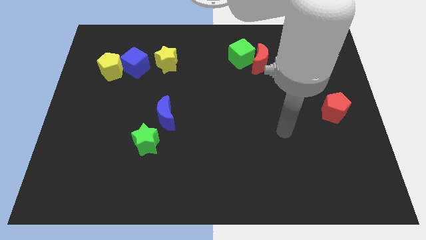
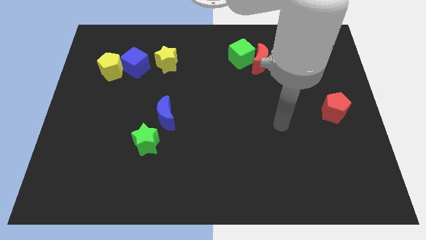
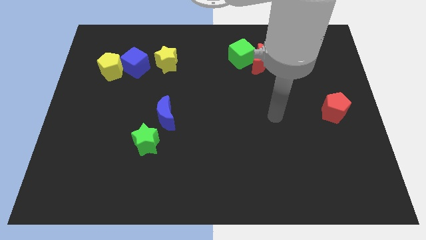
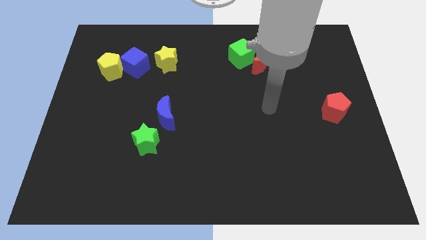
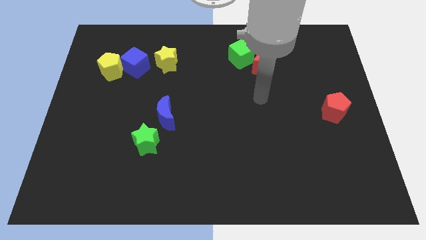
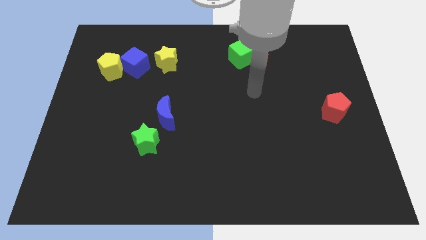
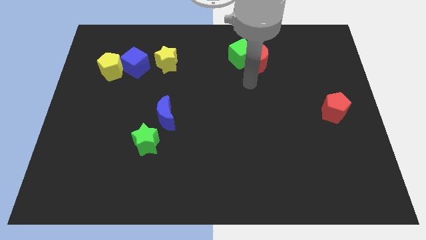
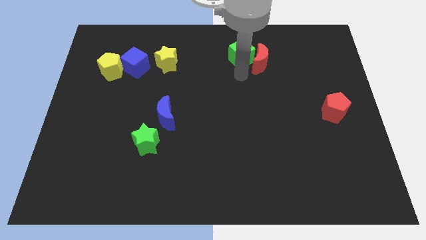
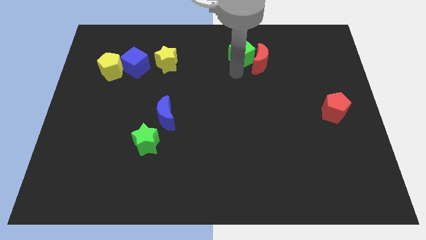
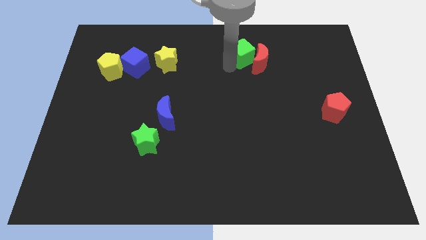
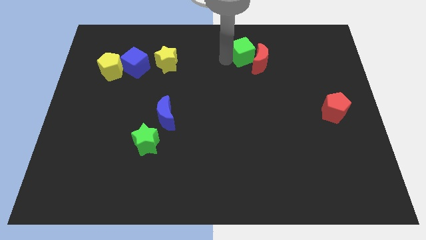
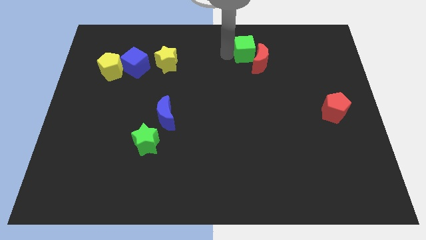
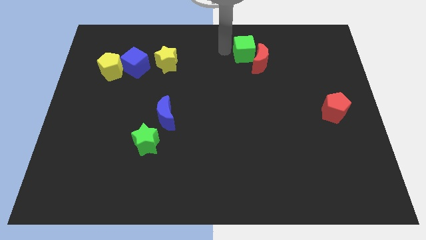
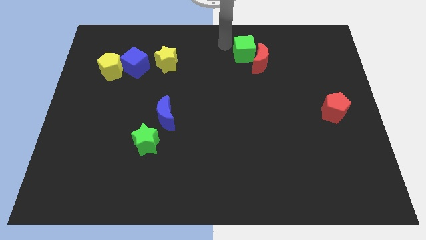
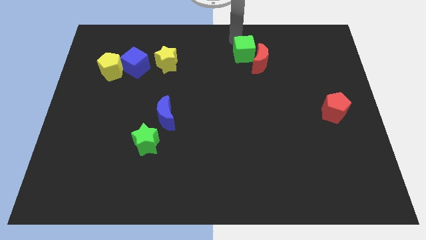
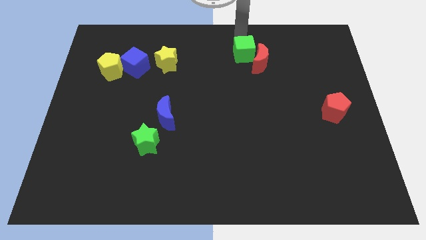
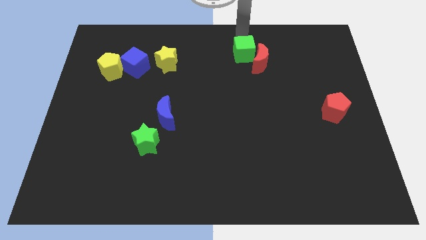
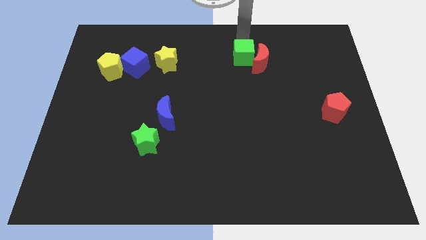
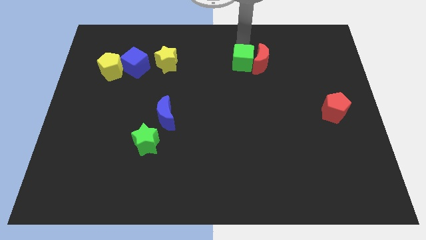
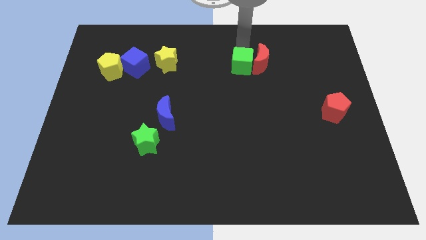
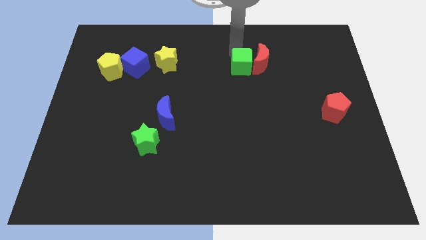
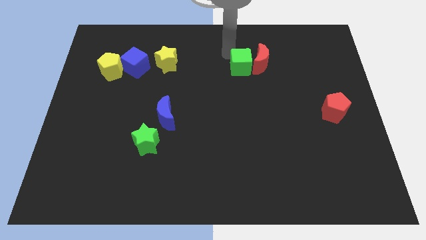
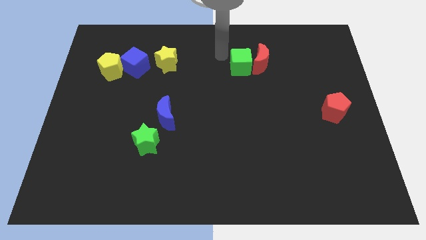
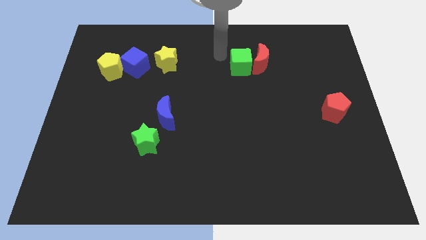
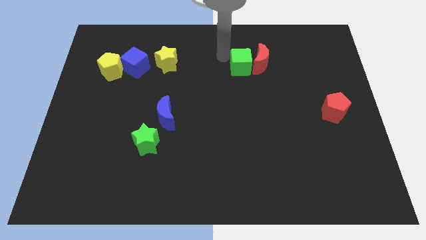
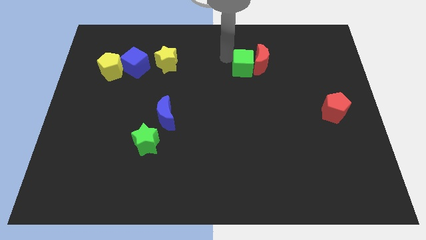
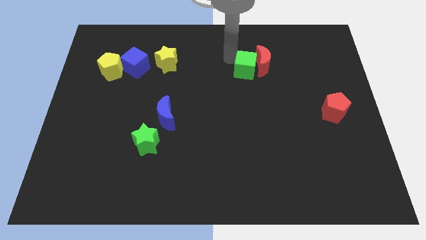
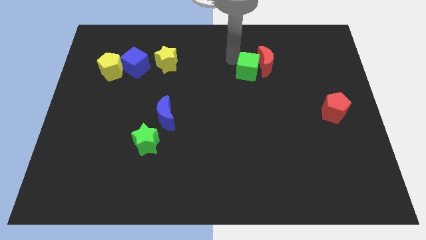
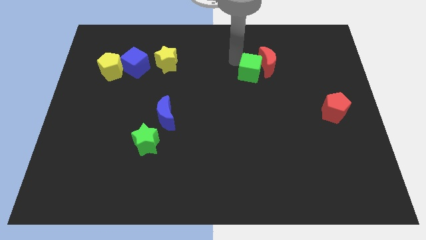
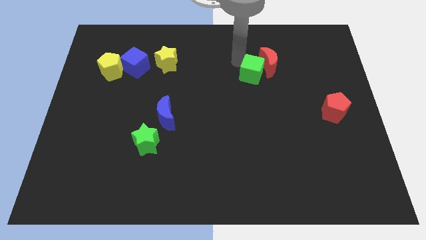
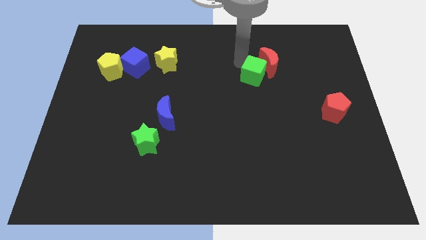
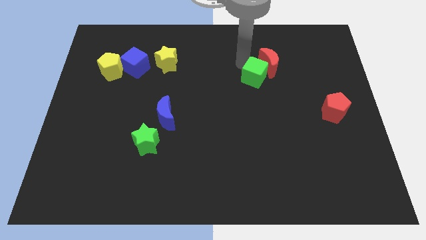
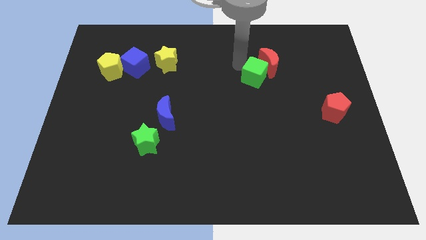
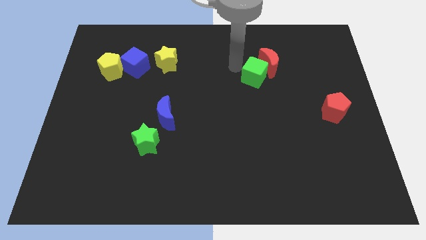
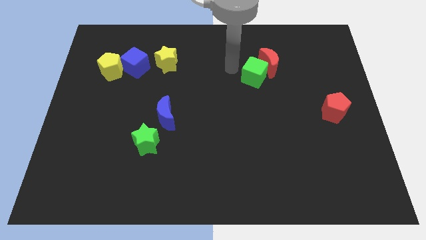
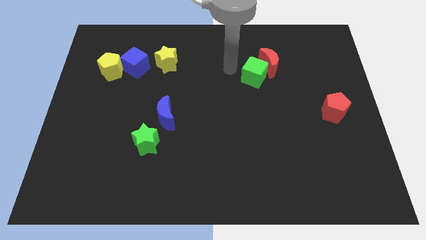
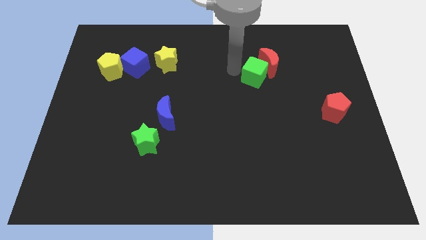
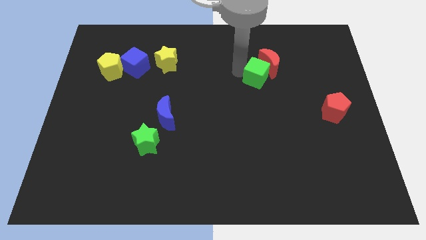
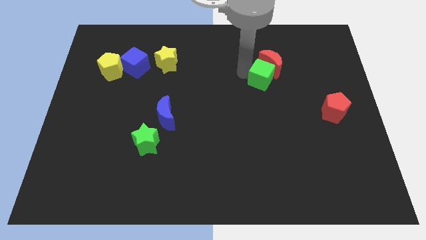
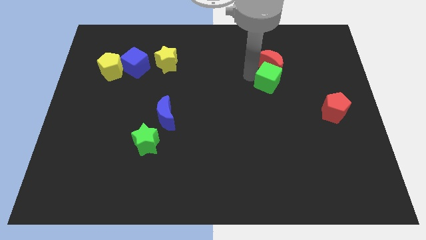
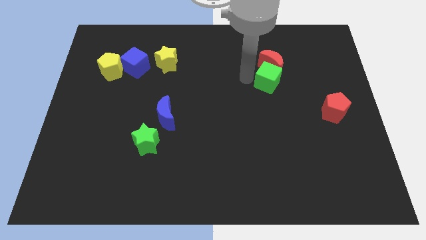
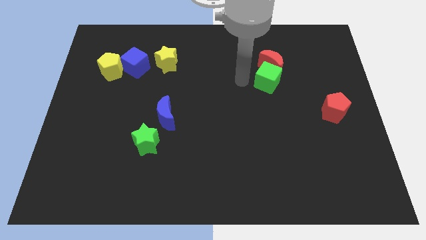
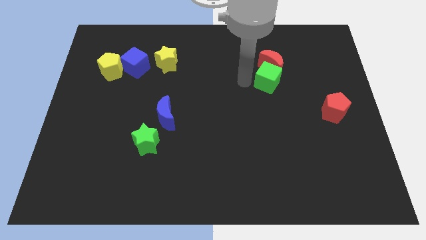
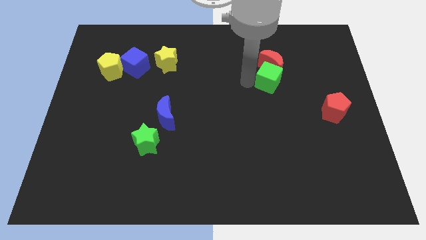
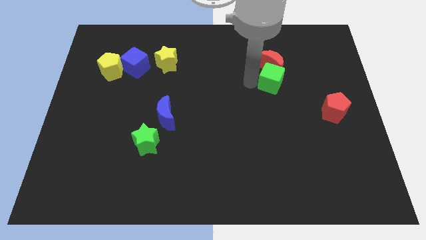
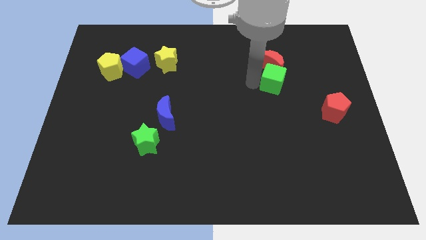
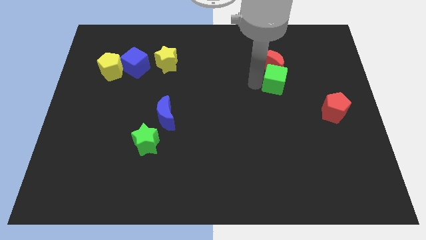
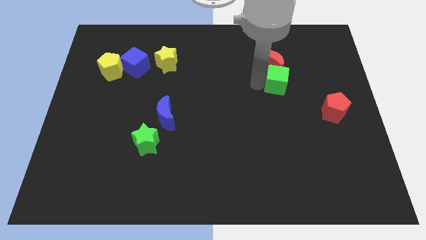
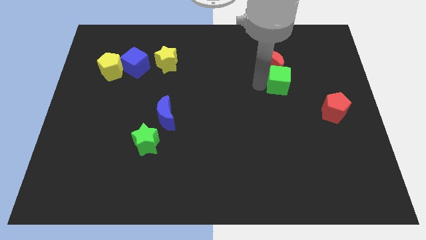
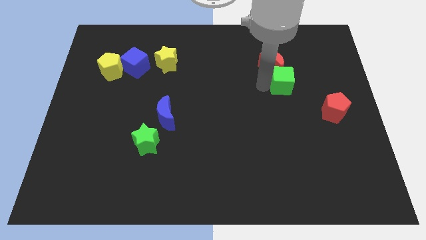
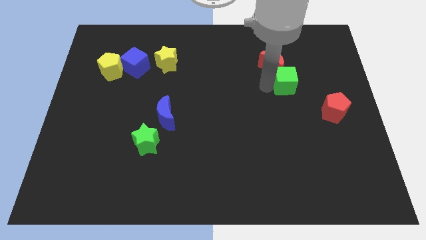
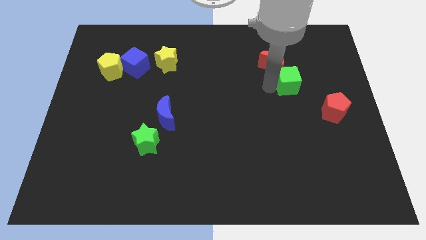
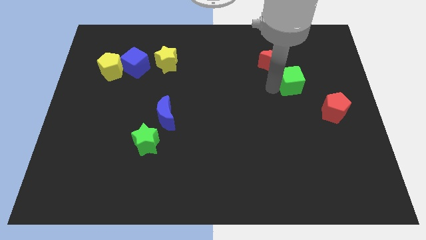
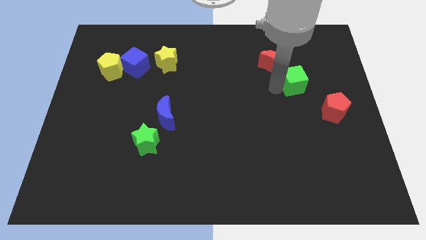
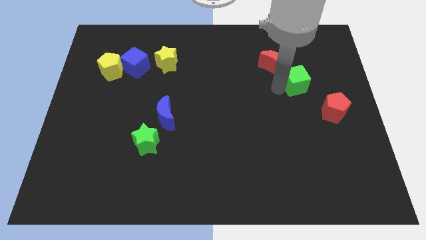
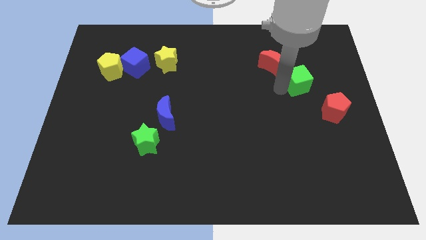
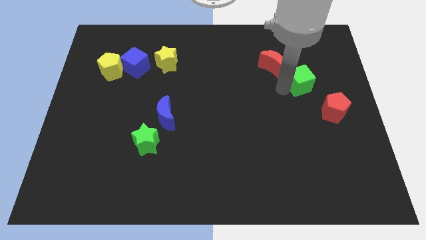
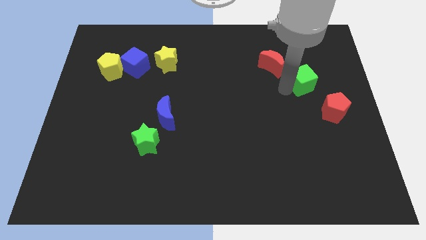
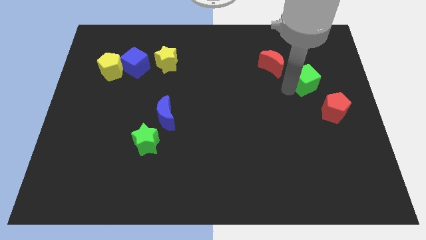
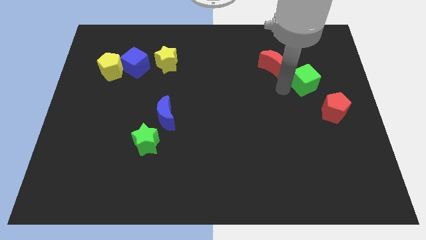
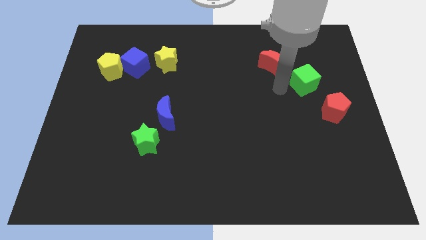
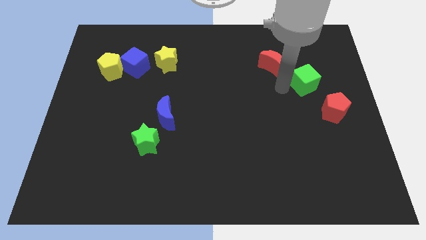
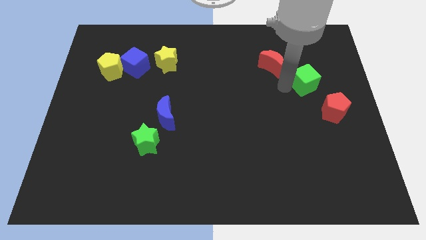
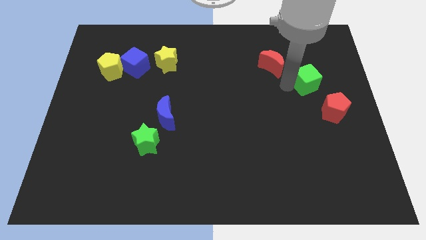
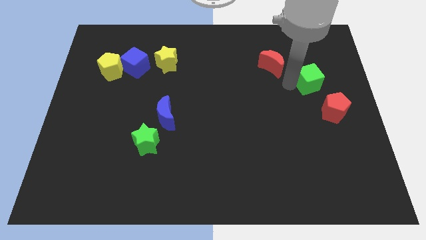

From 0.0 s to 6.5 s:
move the green cube above the red pentagon

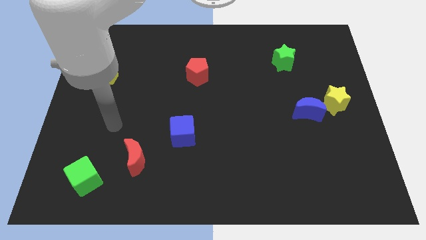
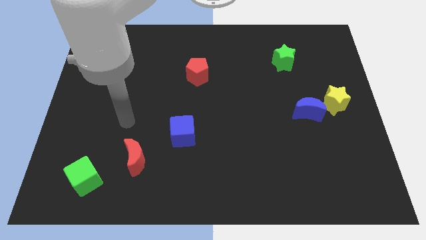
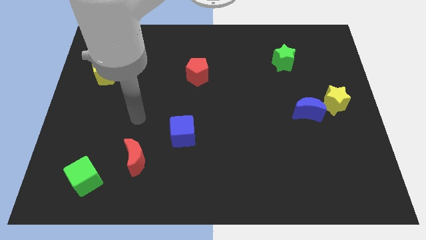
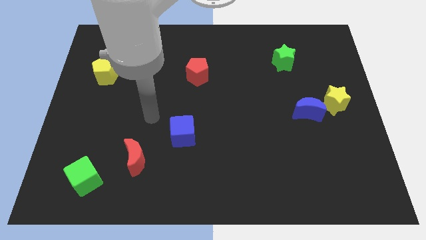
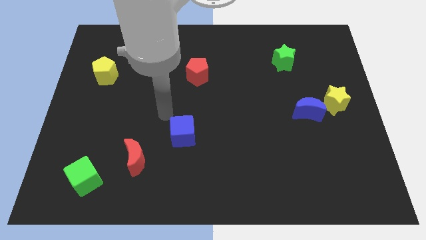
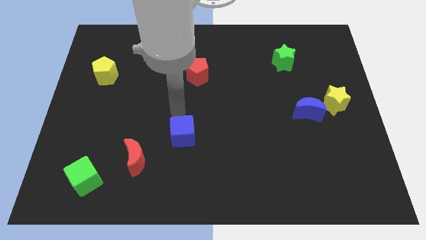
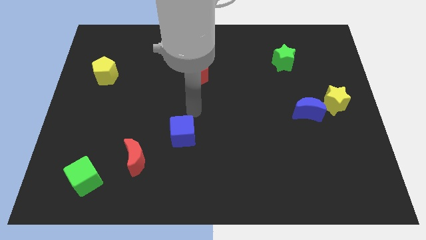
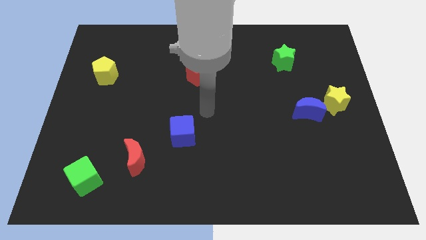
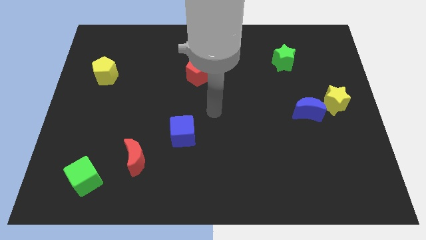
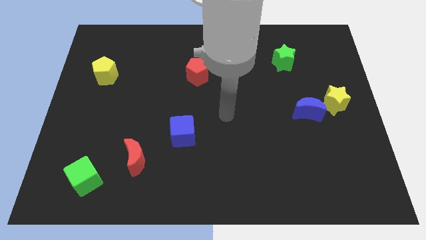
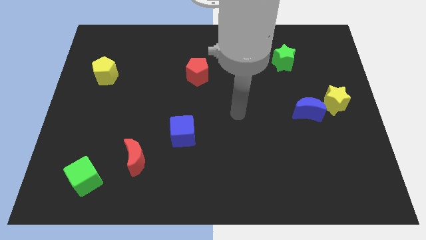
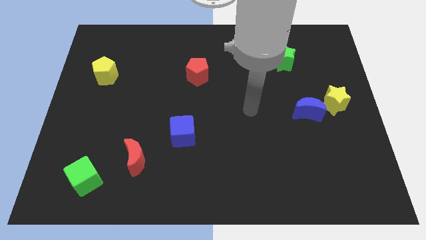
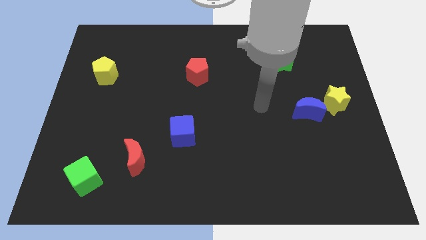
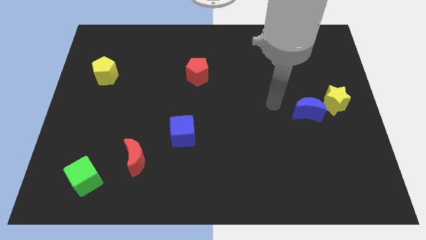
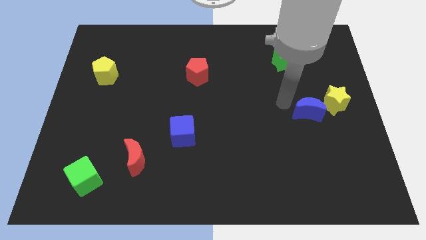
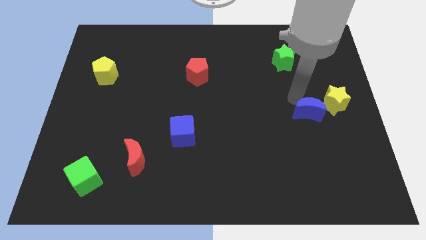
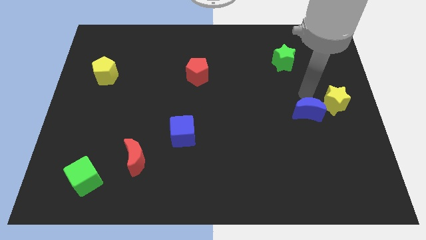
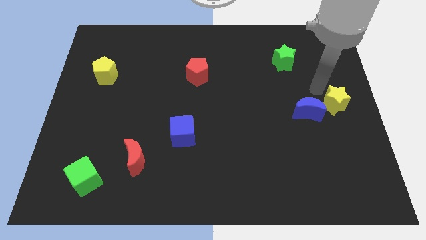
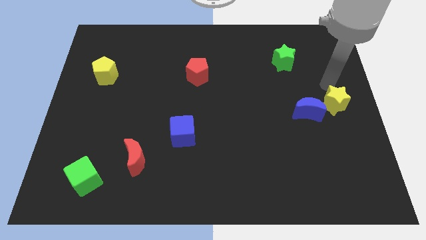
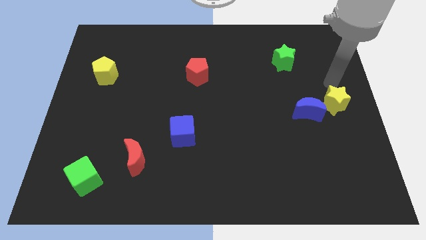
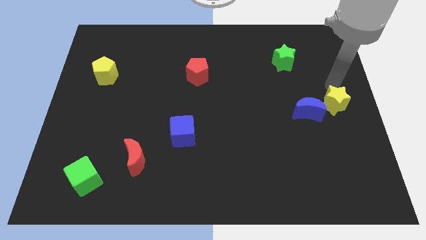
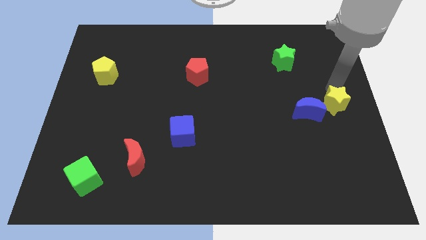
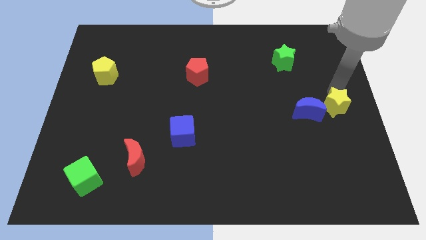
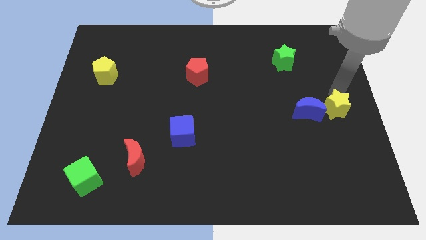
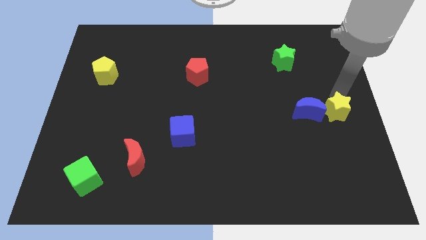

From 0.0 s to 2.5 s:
slide the yellow star diagonally down and to the right of the blue moon
